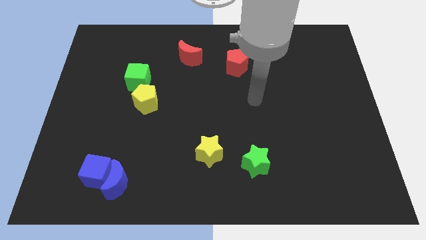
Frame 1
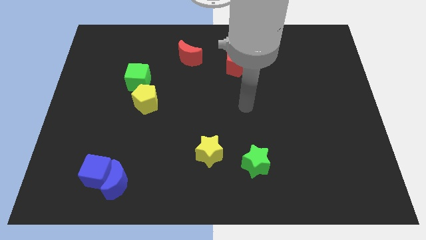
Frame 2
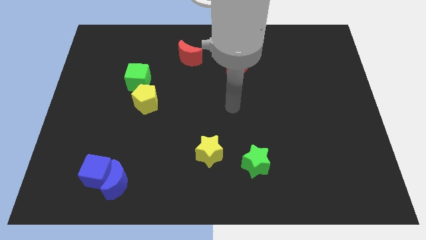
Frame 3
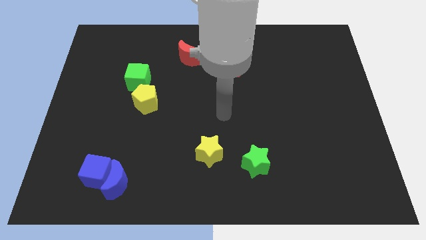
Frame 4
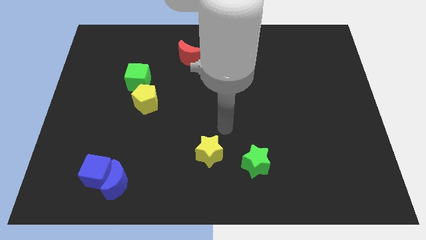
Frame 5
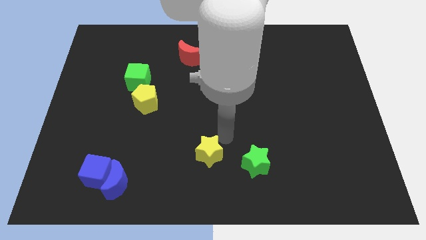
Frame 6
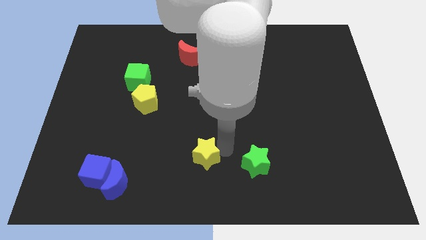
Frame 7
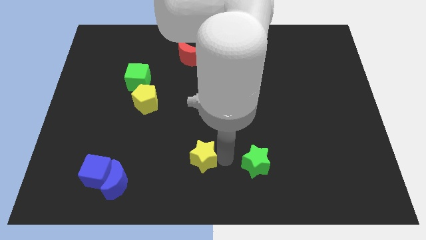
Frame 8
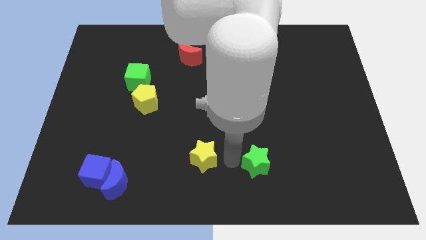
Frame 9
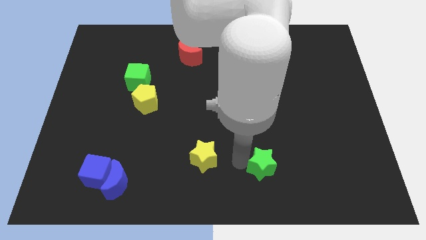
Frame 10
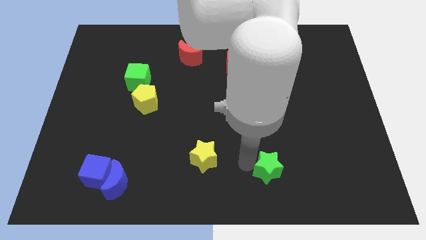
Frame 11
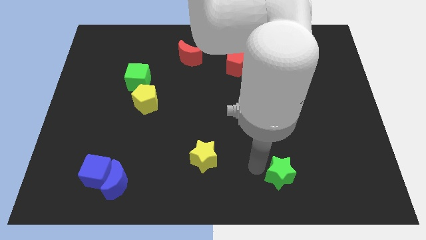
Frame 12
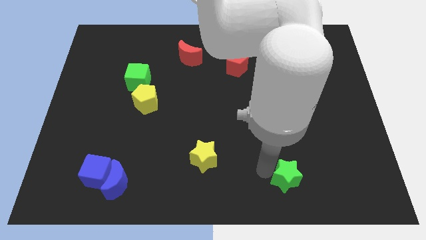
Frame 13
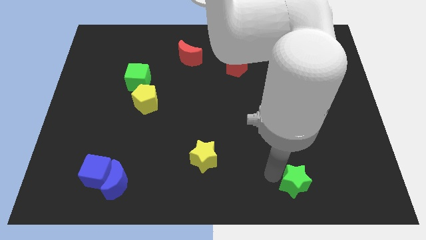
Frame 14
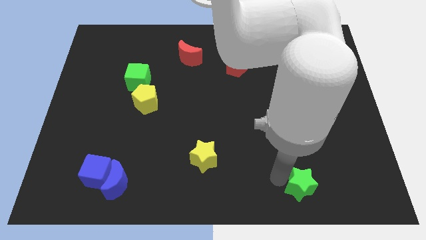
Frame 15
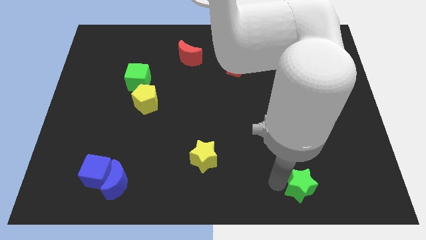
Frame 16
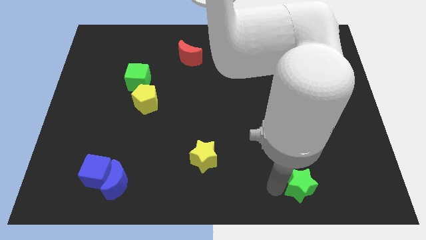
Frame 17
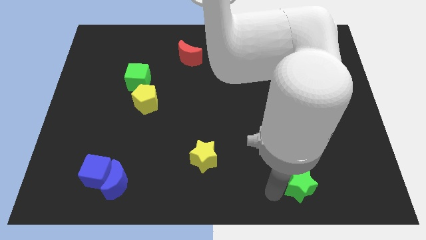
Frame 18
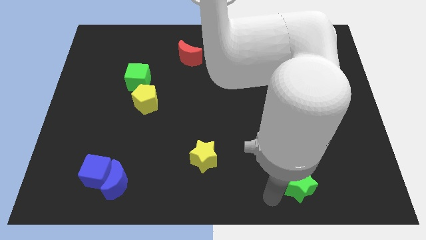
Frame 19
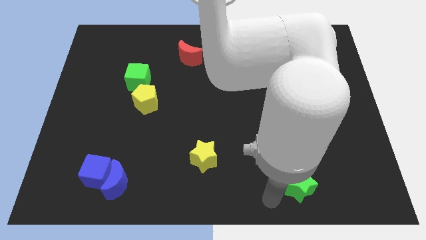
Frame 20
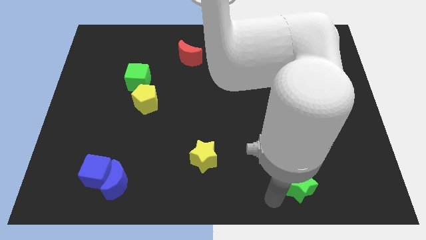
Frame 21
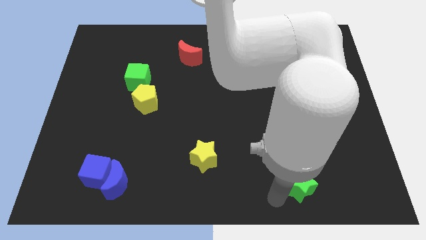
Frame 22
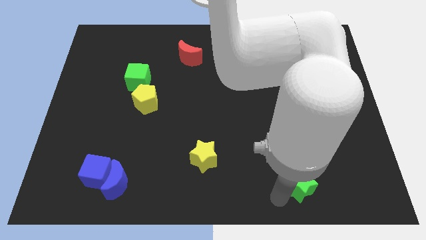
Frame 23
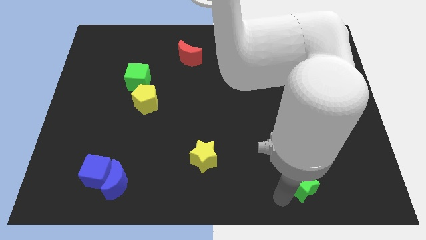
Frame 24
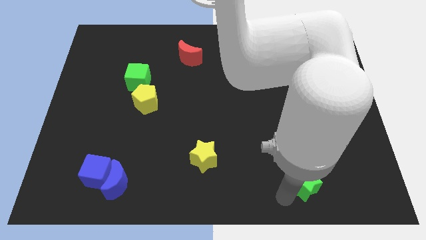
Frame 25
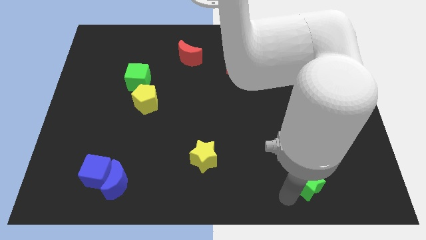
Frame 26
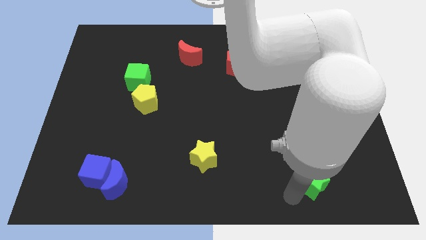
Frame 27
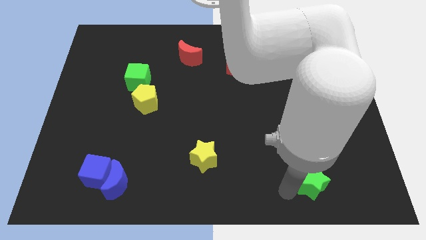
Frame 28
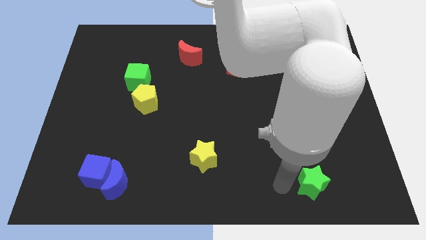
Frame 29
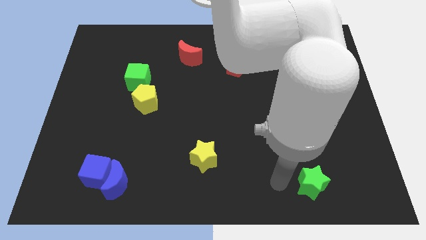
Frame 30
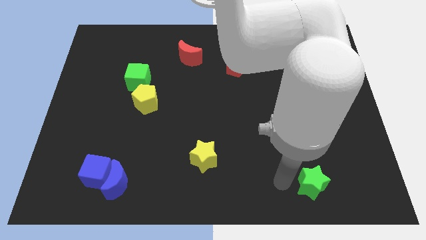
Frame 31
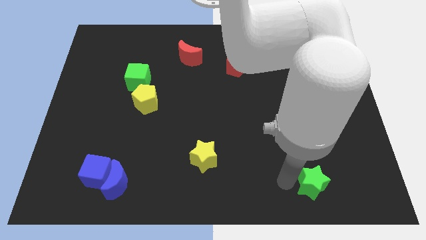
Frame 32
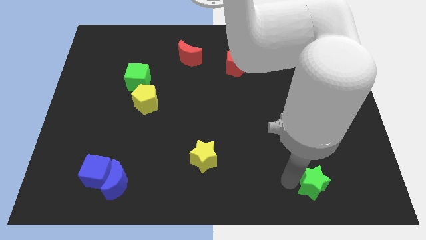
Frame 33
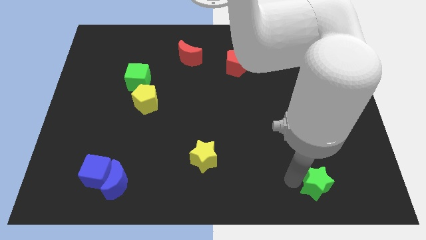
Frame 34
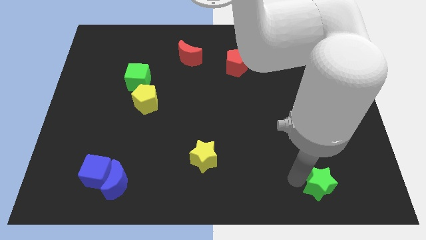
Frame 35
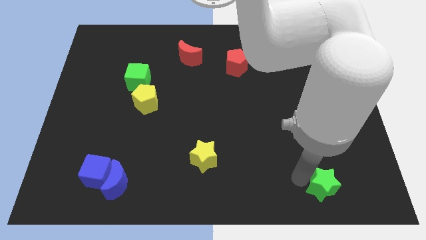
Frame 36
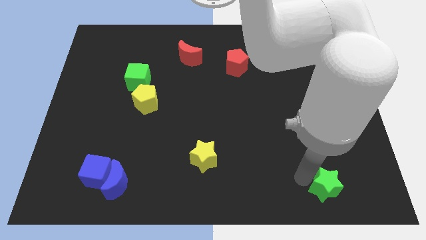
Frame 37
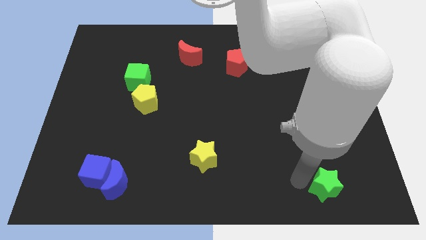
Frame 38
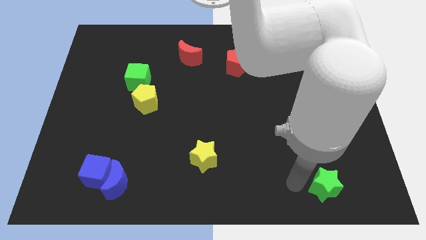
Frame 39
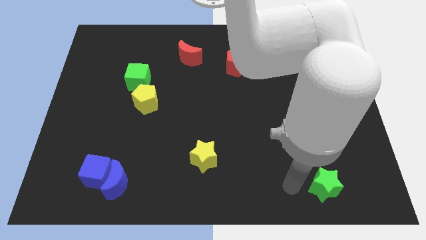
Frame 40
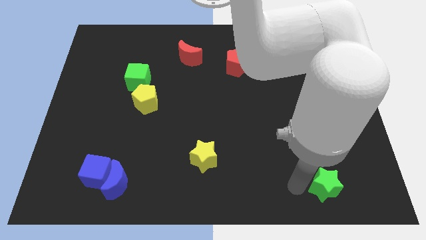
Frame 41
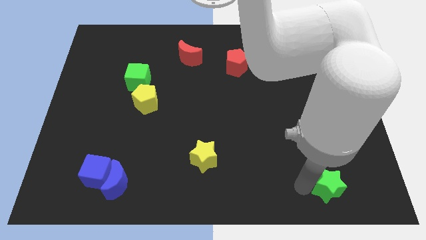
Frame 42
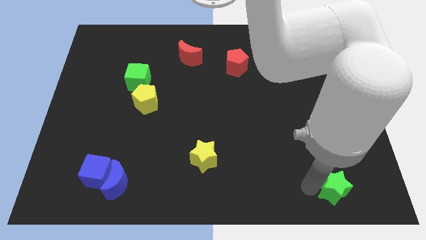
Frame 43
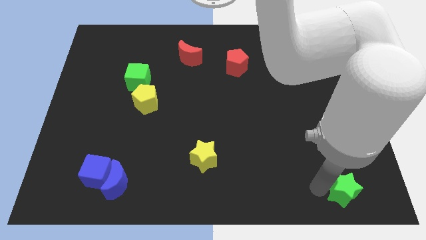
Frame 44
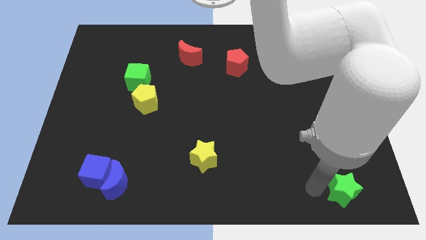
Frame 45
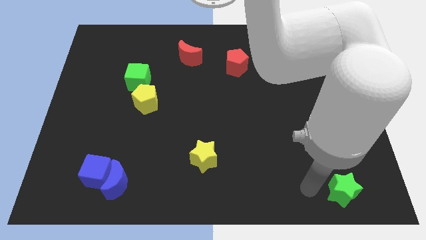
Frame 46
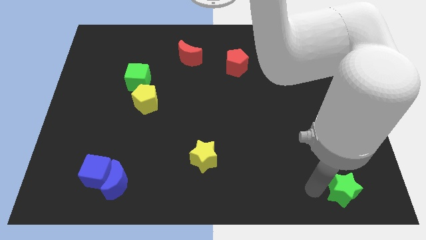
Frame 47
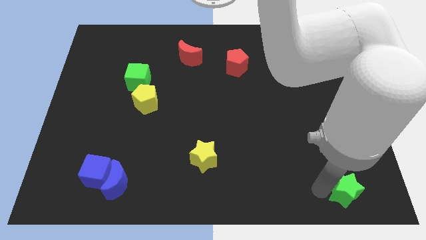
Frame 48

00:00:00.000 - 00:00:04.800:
slide the green star to the bottom right

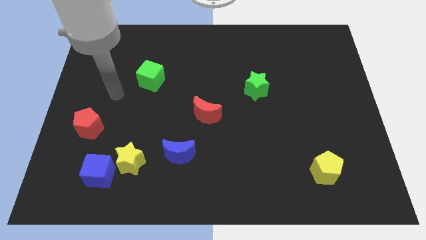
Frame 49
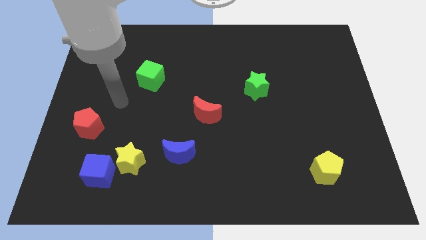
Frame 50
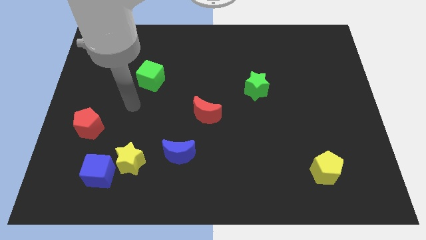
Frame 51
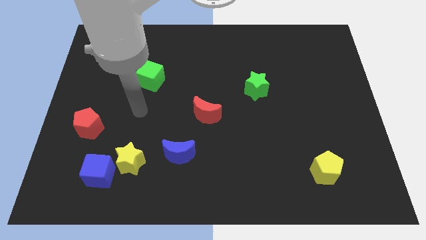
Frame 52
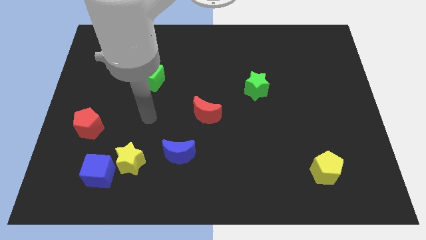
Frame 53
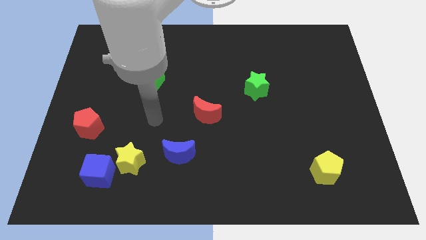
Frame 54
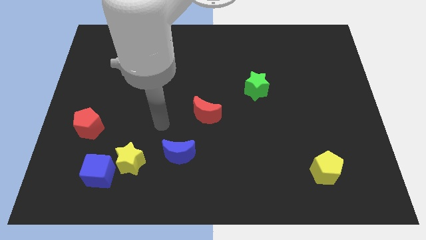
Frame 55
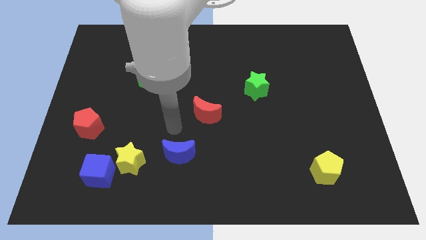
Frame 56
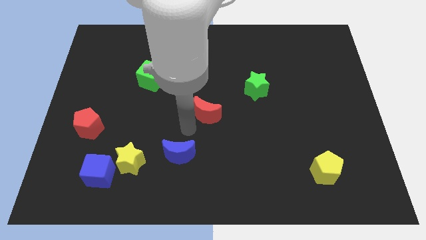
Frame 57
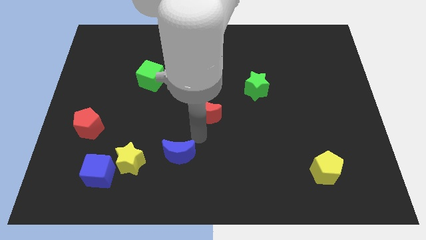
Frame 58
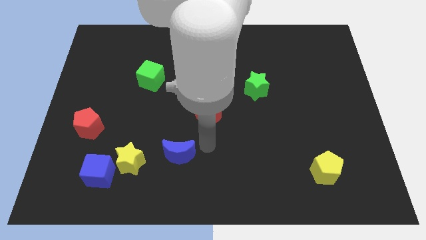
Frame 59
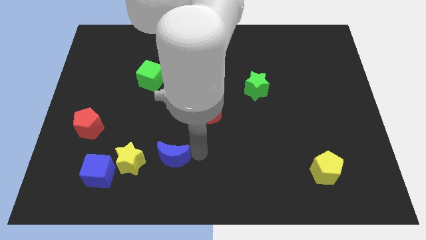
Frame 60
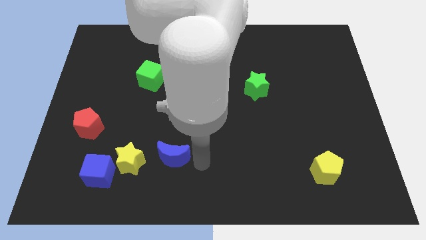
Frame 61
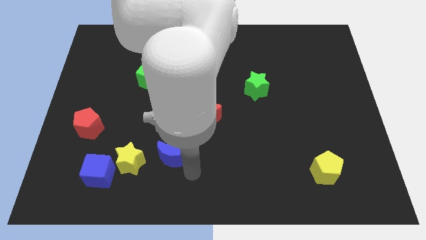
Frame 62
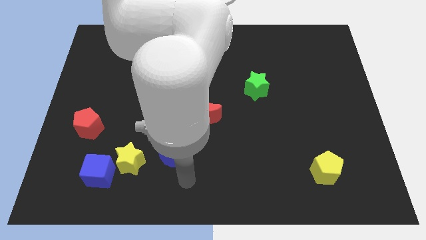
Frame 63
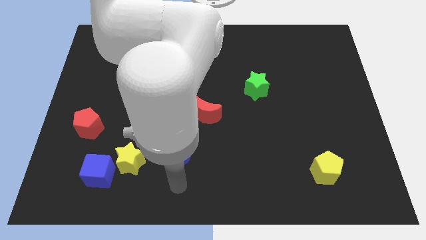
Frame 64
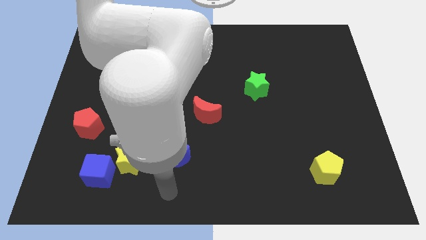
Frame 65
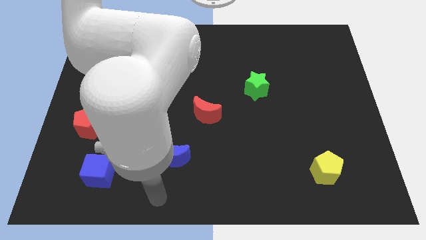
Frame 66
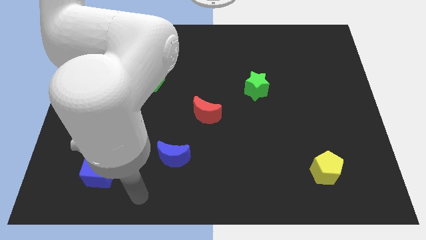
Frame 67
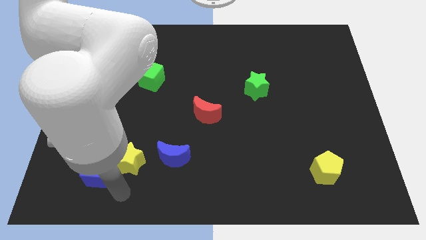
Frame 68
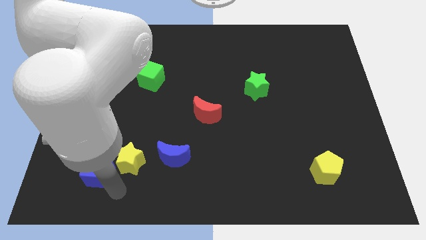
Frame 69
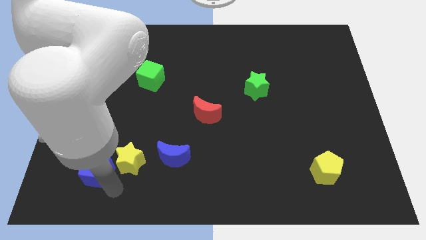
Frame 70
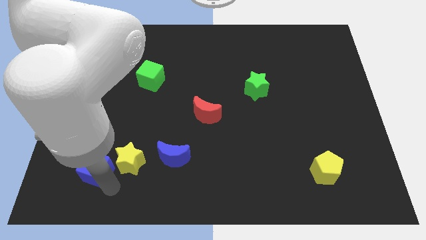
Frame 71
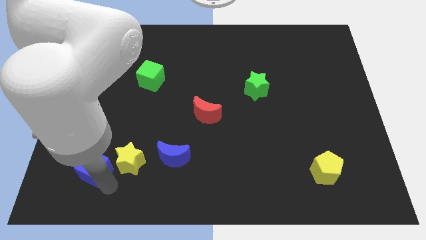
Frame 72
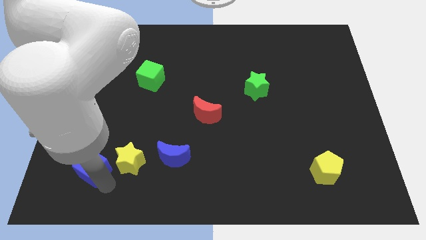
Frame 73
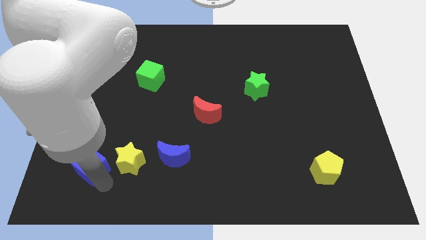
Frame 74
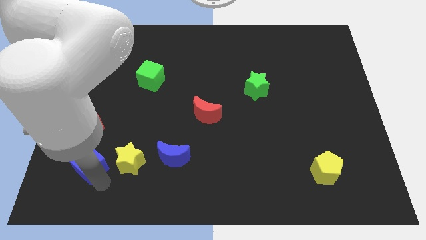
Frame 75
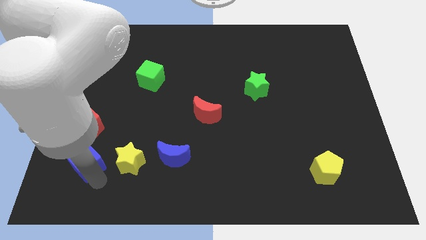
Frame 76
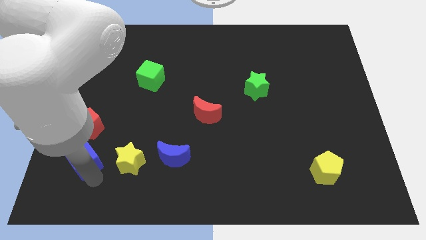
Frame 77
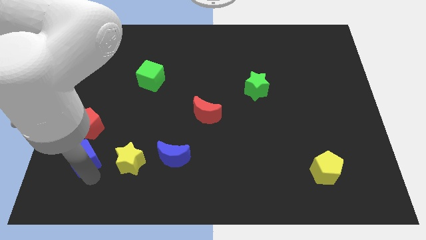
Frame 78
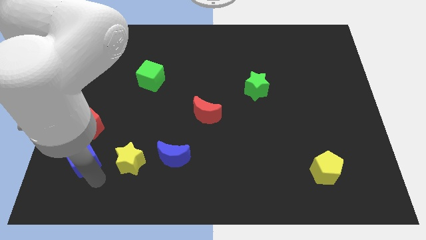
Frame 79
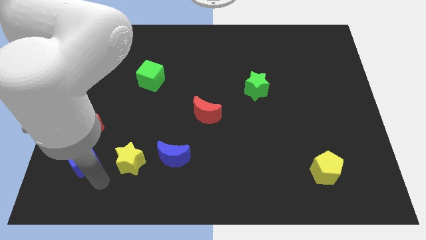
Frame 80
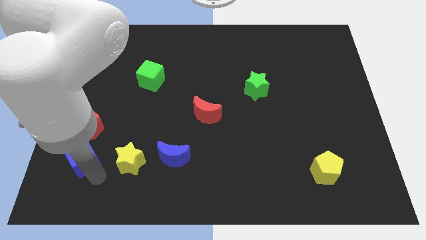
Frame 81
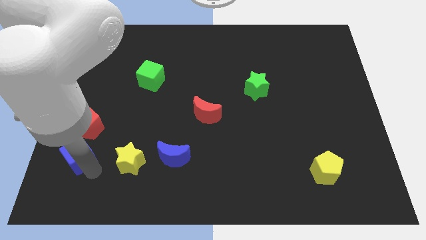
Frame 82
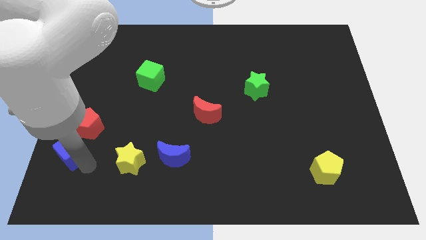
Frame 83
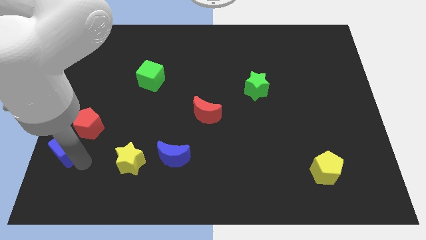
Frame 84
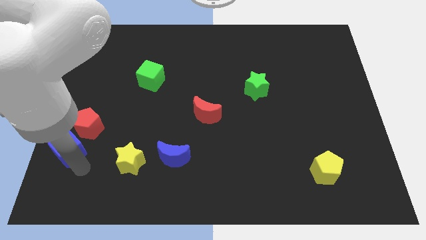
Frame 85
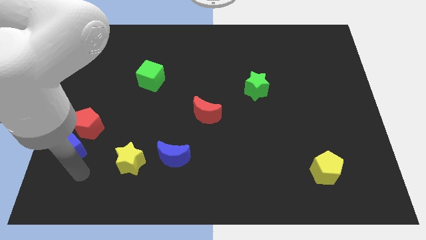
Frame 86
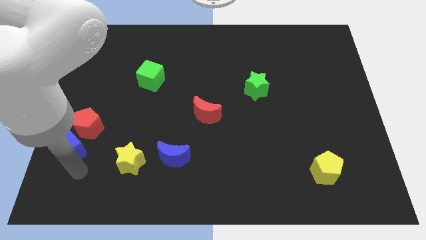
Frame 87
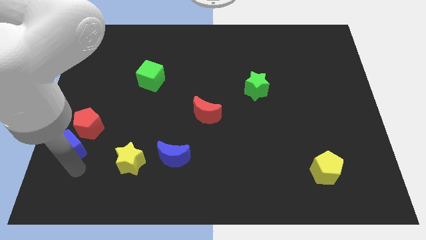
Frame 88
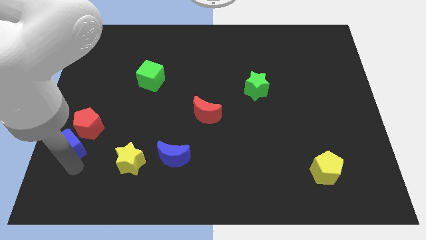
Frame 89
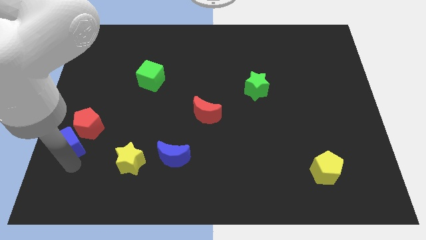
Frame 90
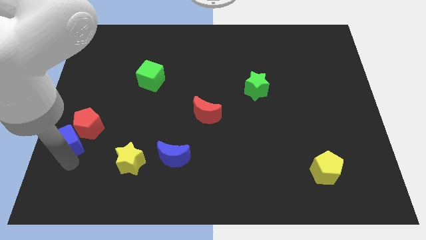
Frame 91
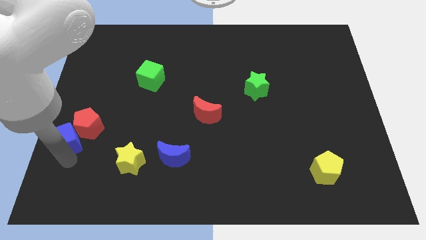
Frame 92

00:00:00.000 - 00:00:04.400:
push the blue cube to the center left
